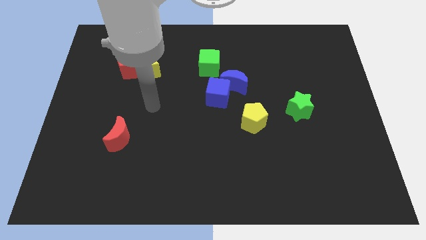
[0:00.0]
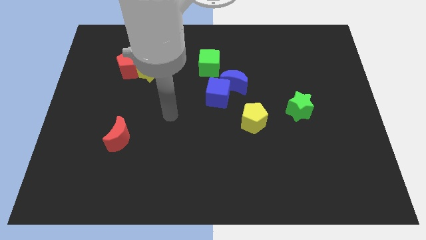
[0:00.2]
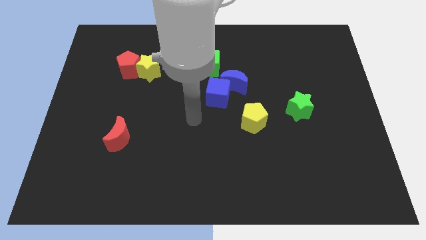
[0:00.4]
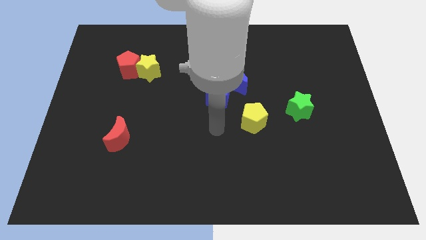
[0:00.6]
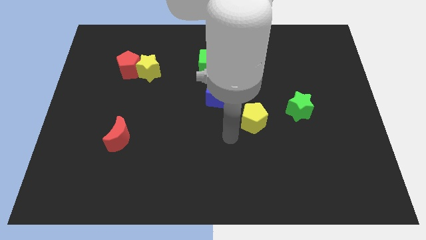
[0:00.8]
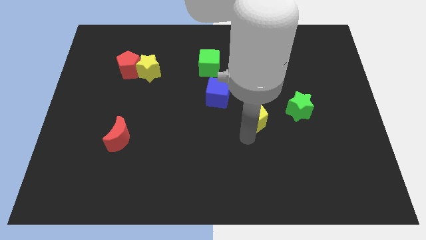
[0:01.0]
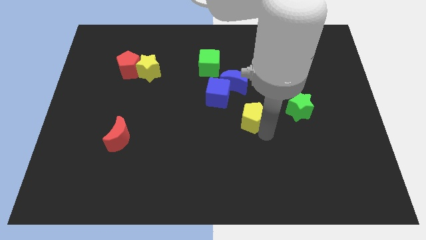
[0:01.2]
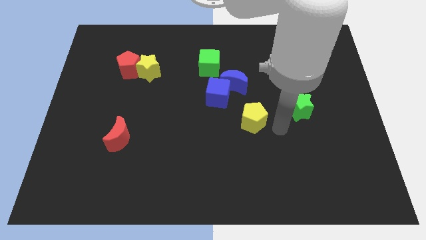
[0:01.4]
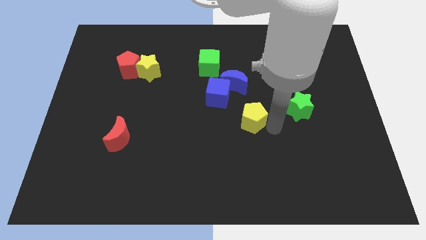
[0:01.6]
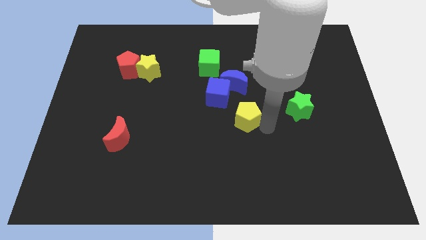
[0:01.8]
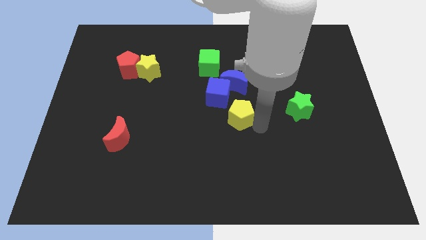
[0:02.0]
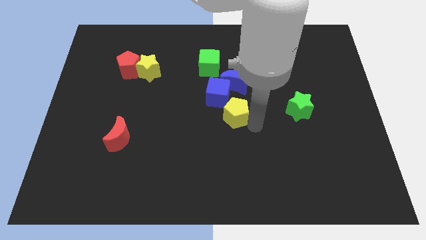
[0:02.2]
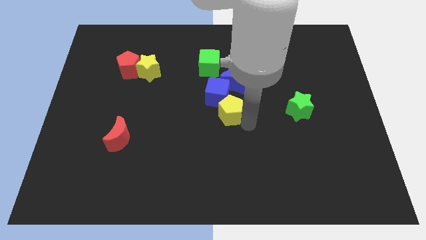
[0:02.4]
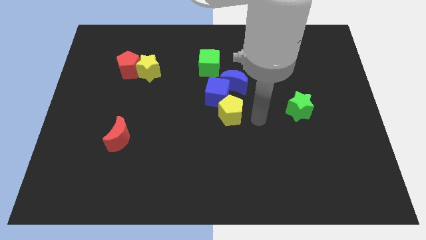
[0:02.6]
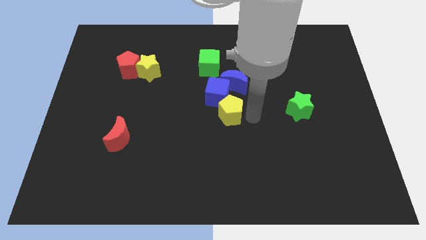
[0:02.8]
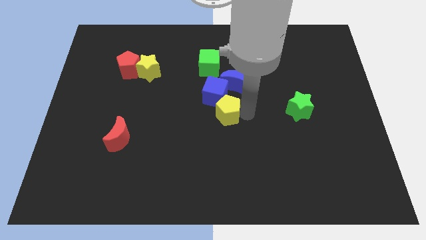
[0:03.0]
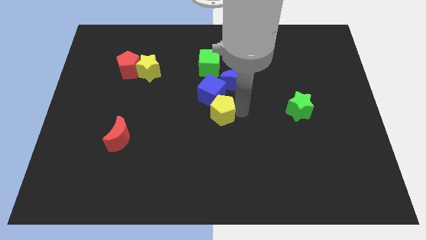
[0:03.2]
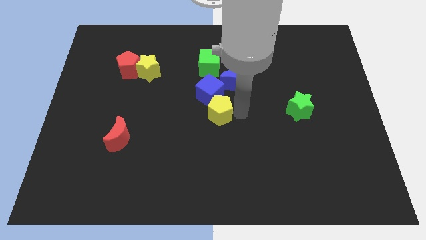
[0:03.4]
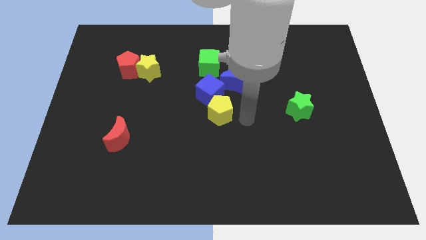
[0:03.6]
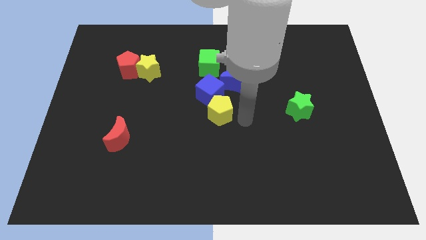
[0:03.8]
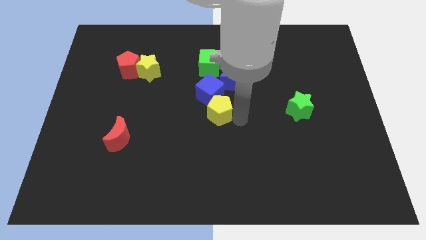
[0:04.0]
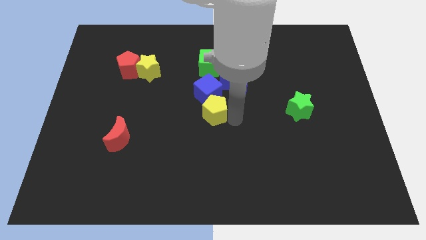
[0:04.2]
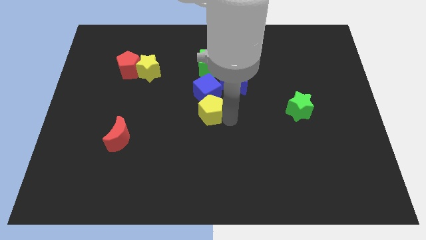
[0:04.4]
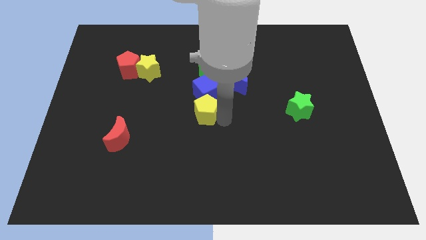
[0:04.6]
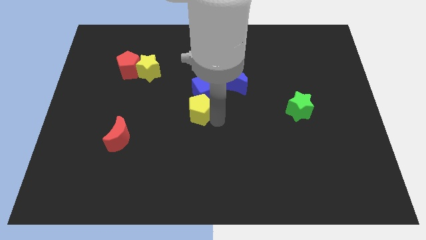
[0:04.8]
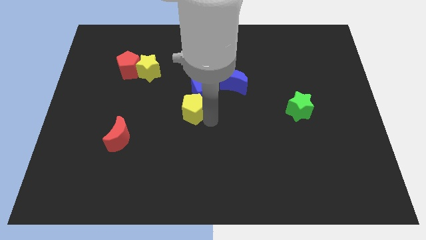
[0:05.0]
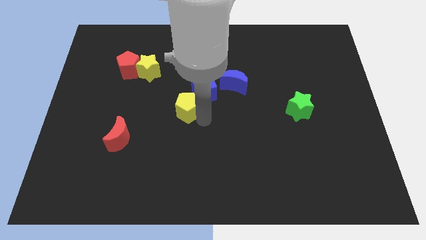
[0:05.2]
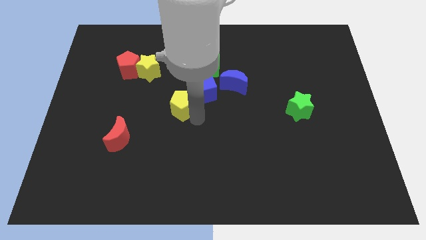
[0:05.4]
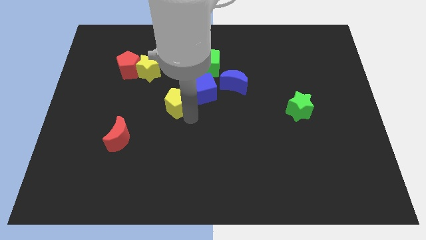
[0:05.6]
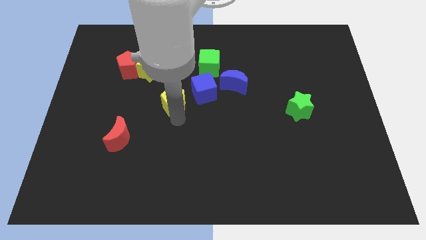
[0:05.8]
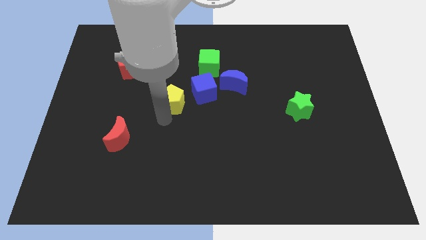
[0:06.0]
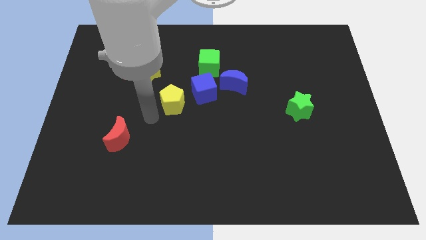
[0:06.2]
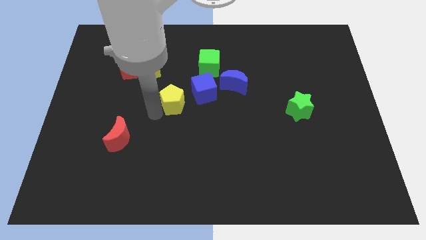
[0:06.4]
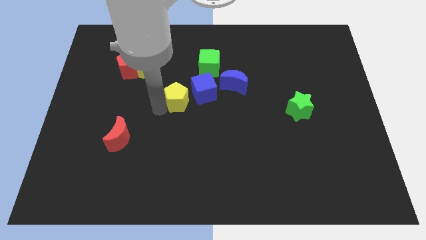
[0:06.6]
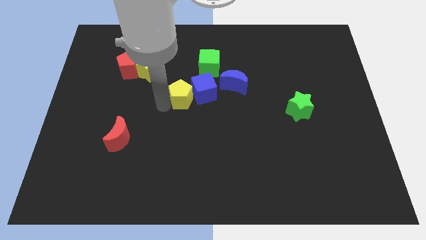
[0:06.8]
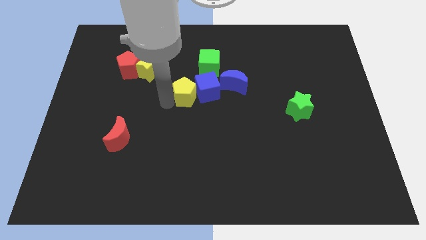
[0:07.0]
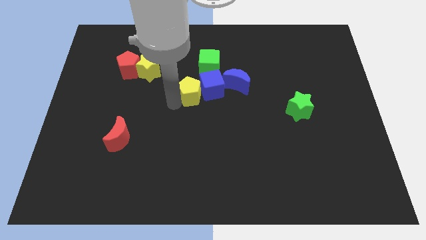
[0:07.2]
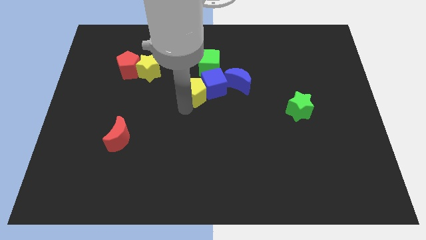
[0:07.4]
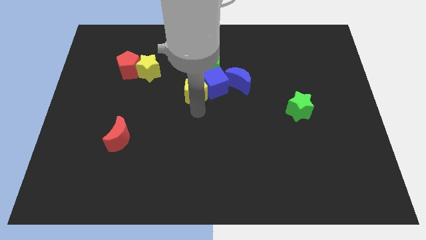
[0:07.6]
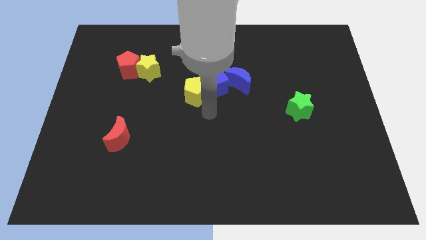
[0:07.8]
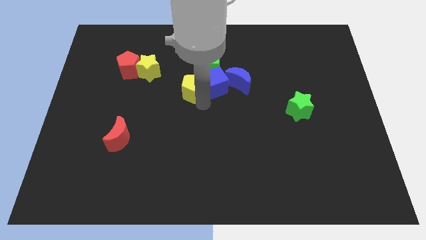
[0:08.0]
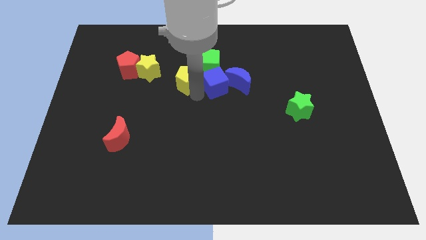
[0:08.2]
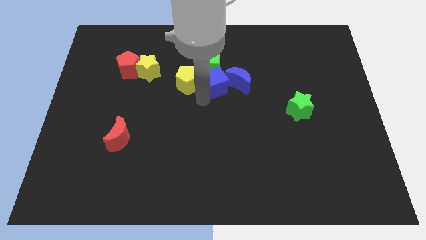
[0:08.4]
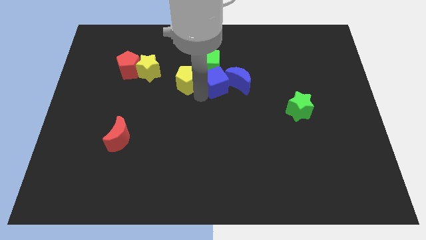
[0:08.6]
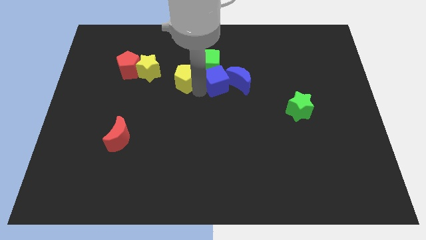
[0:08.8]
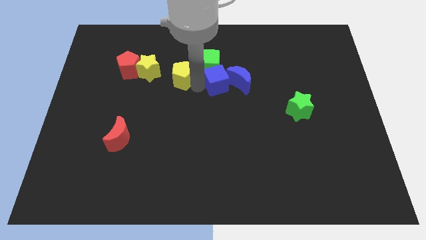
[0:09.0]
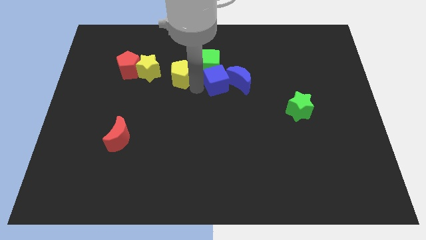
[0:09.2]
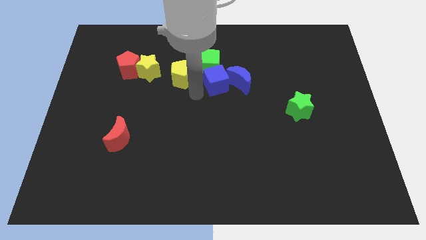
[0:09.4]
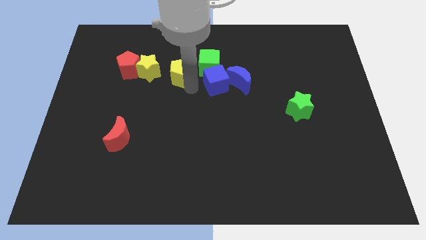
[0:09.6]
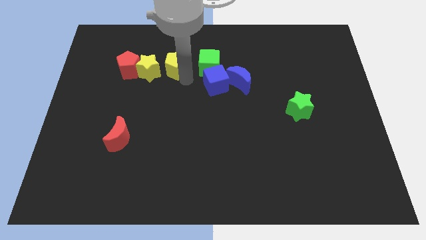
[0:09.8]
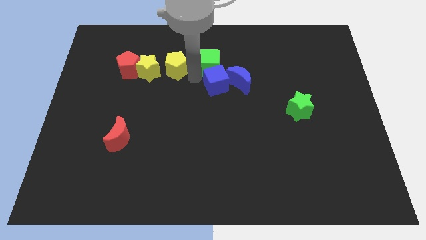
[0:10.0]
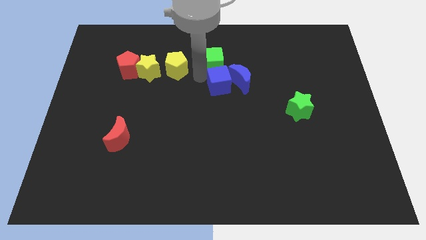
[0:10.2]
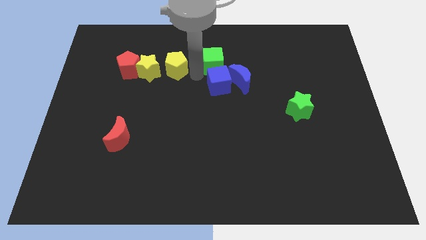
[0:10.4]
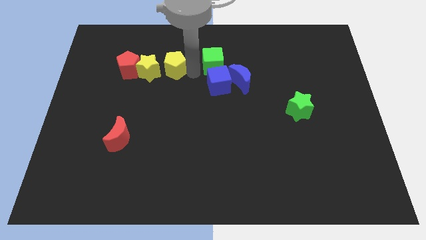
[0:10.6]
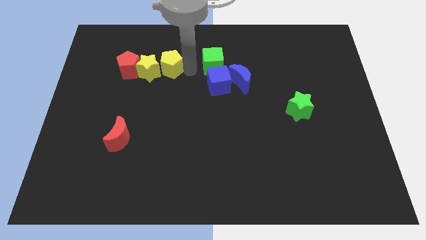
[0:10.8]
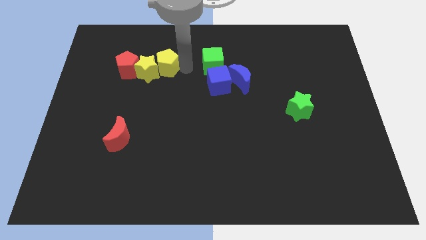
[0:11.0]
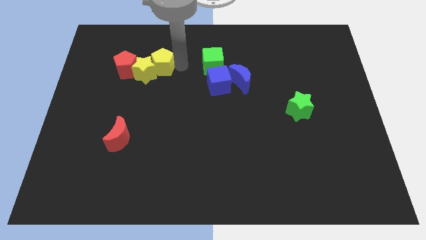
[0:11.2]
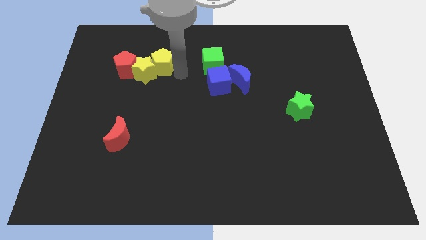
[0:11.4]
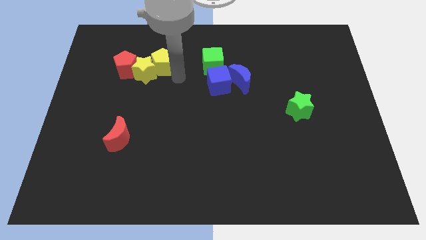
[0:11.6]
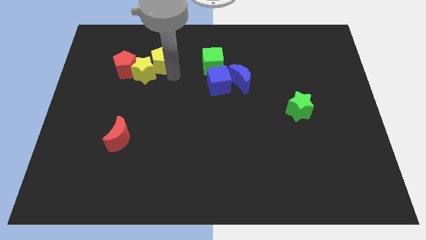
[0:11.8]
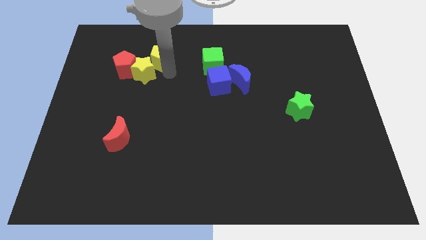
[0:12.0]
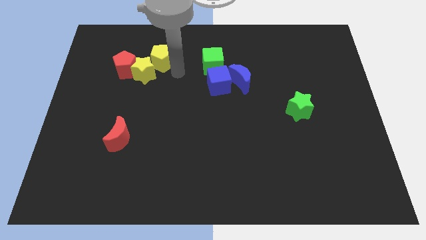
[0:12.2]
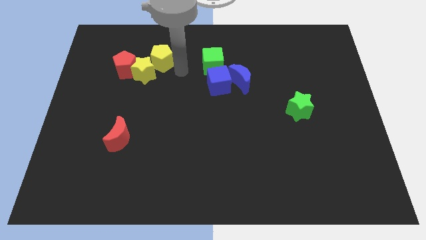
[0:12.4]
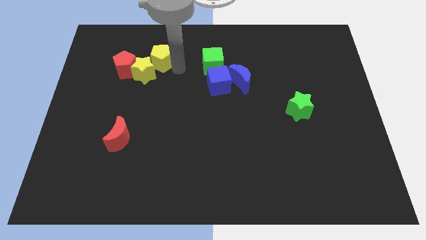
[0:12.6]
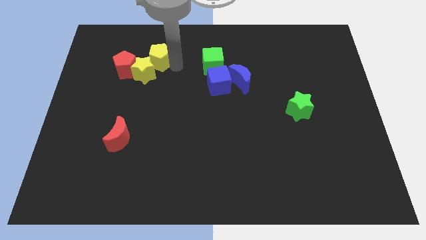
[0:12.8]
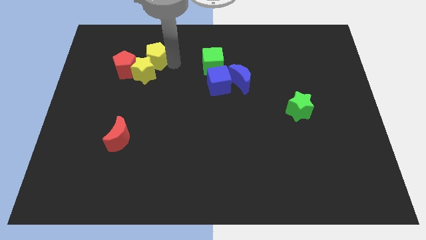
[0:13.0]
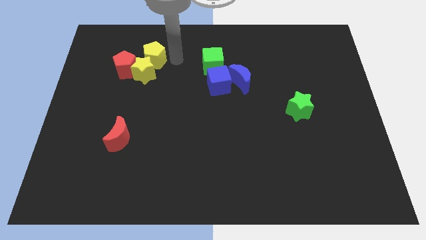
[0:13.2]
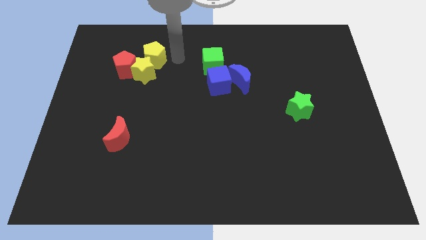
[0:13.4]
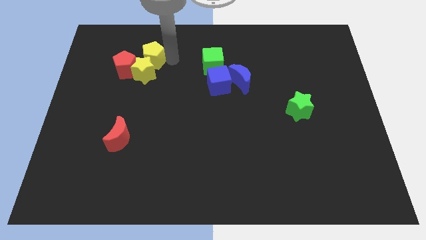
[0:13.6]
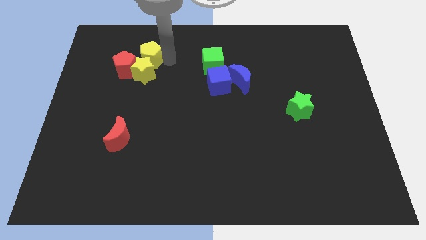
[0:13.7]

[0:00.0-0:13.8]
slide the yellow pentagon to the top left side of the yellow star

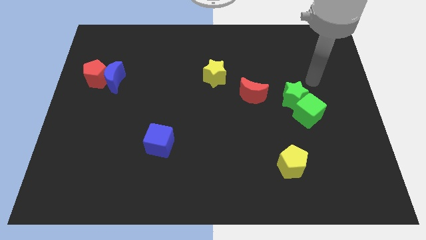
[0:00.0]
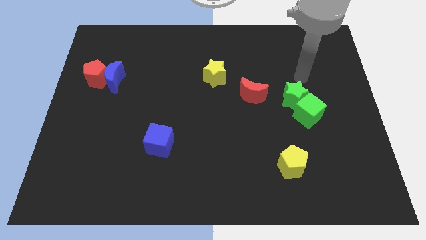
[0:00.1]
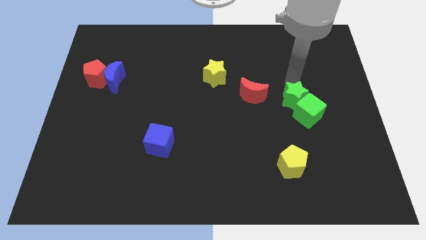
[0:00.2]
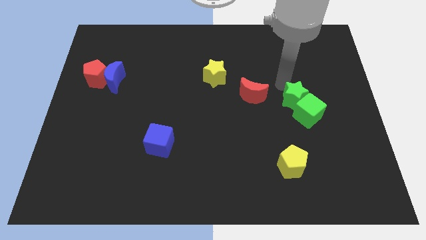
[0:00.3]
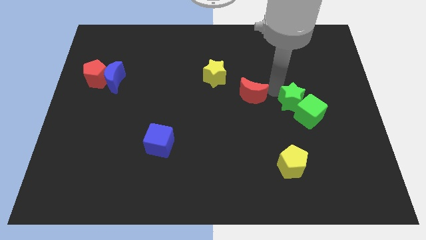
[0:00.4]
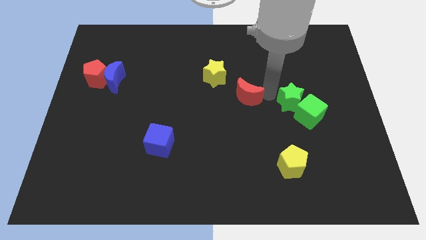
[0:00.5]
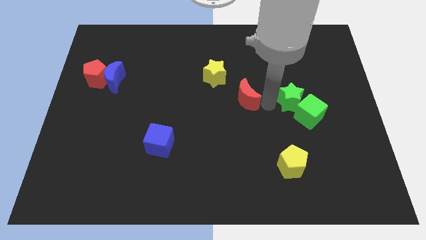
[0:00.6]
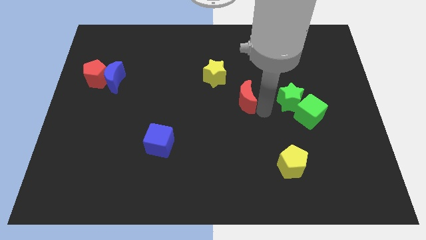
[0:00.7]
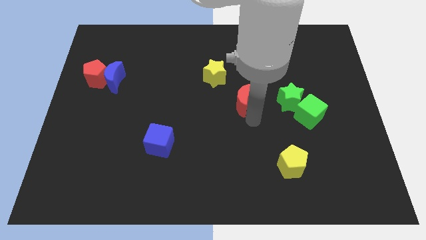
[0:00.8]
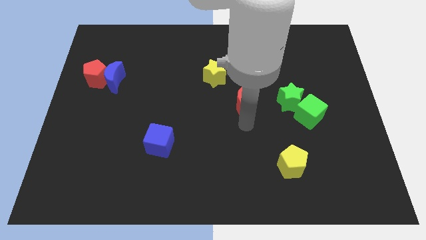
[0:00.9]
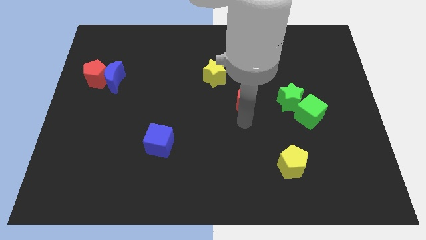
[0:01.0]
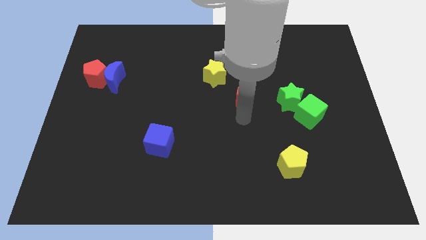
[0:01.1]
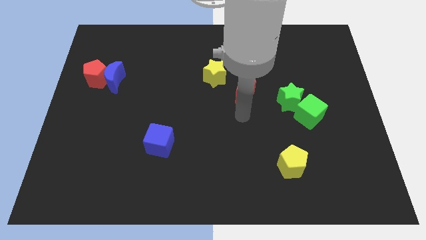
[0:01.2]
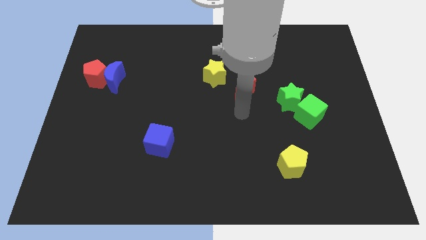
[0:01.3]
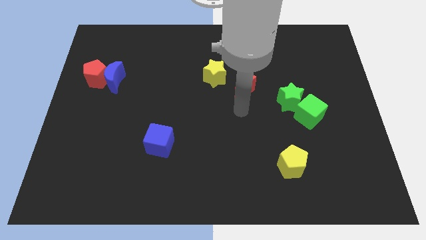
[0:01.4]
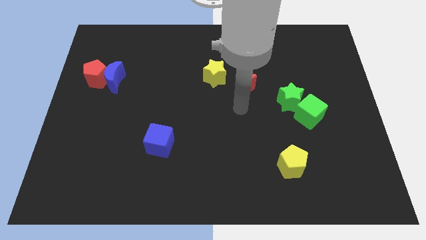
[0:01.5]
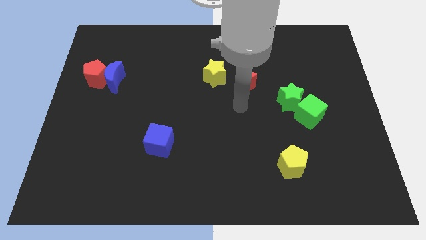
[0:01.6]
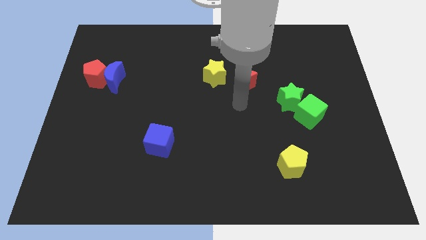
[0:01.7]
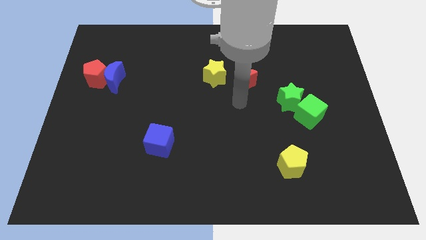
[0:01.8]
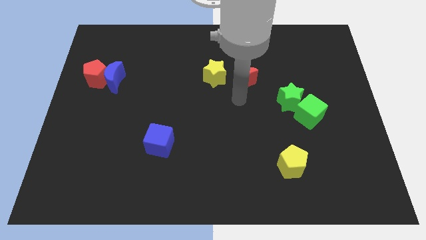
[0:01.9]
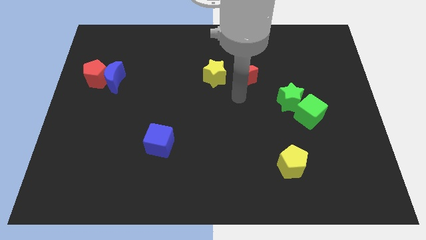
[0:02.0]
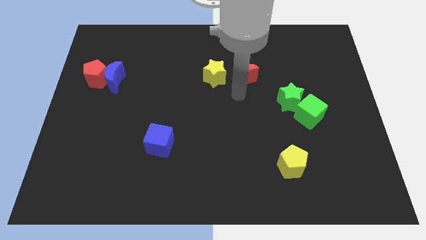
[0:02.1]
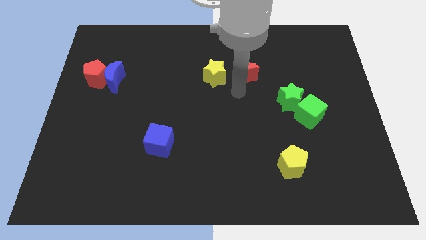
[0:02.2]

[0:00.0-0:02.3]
move the red moon to the top right side of the yellow star
